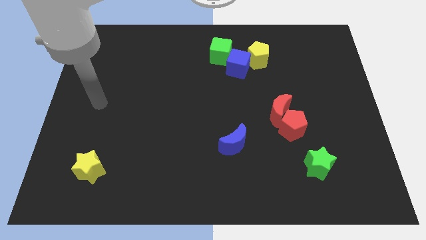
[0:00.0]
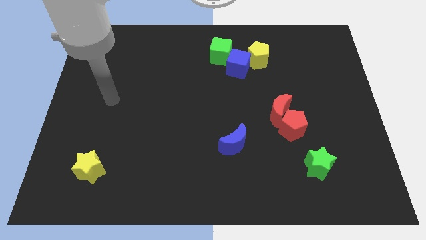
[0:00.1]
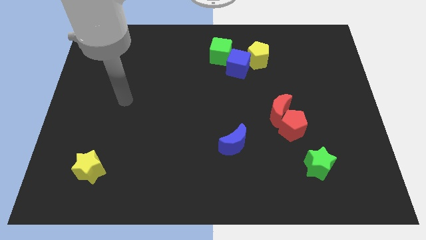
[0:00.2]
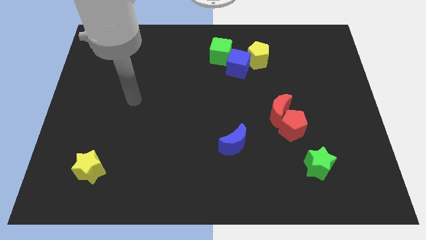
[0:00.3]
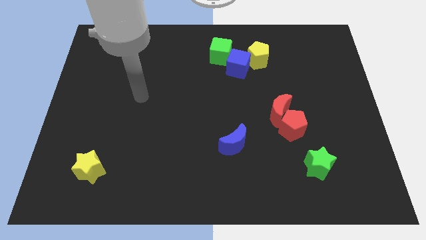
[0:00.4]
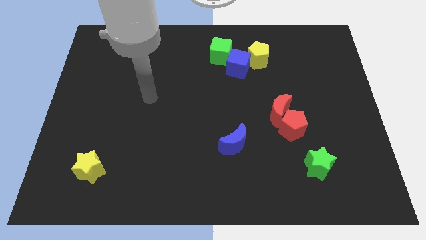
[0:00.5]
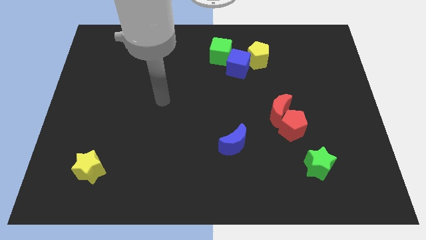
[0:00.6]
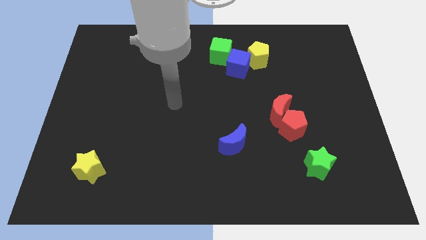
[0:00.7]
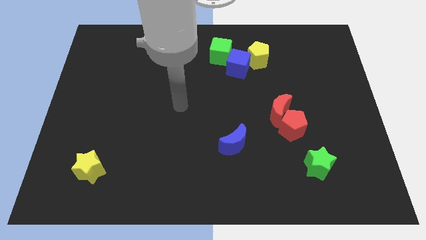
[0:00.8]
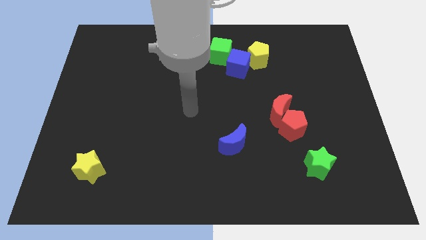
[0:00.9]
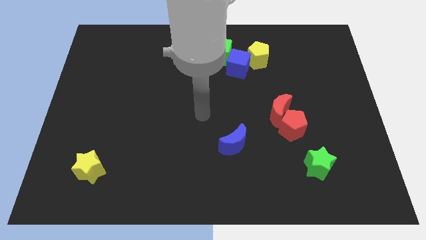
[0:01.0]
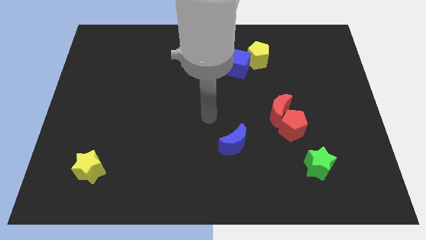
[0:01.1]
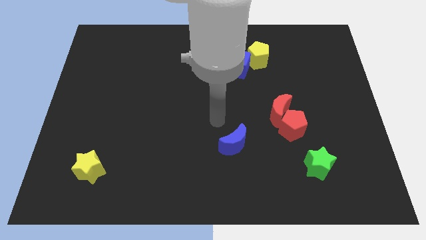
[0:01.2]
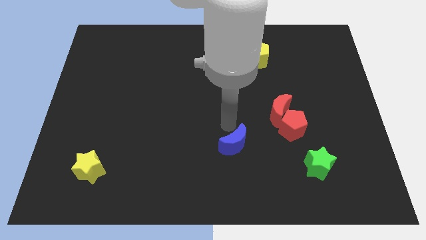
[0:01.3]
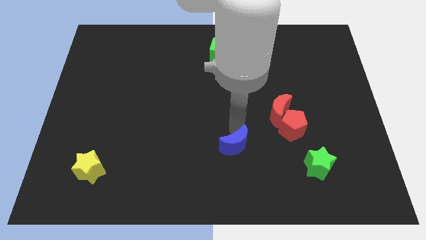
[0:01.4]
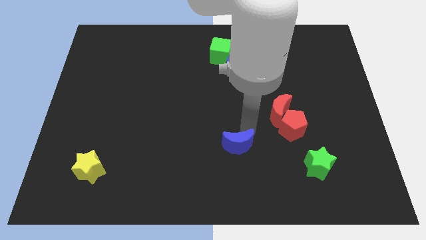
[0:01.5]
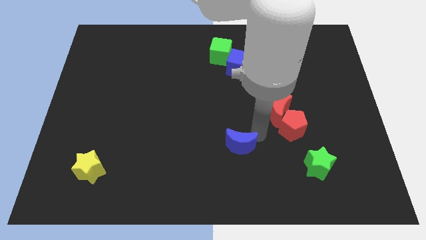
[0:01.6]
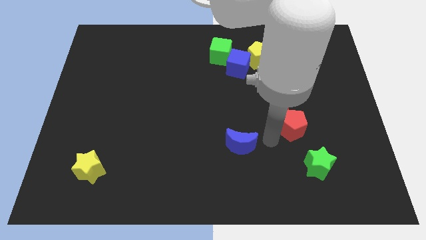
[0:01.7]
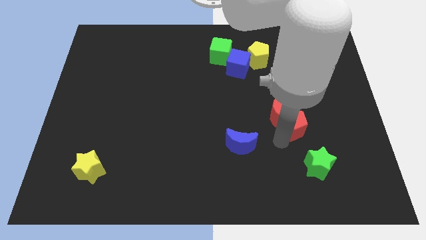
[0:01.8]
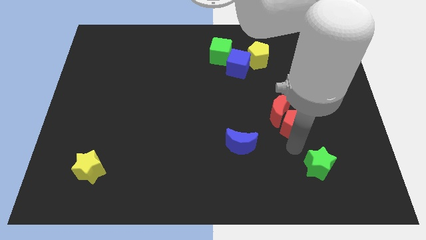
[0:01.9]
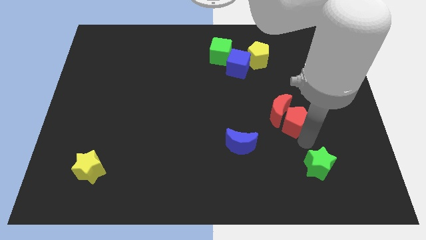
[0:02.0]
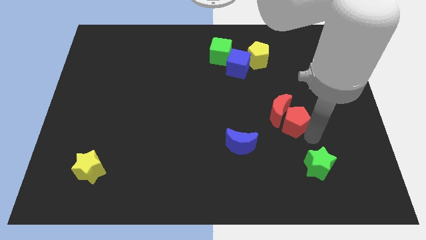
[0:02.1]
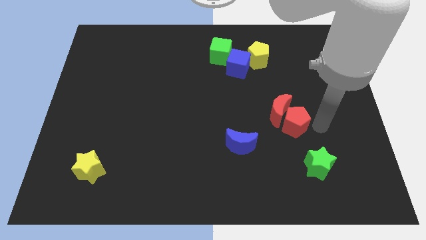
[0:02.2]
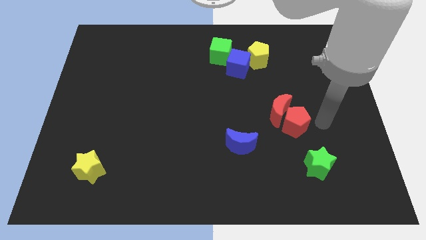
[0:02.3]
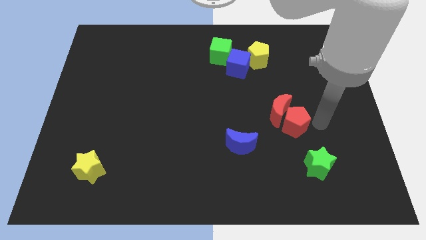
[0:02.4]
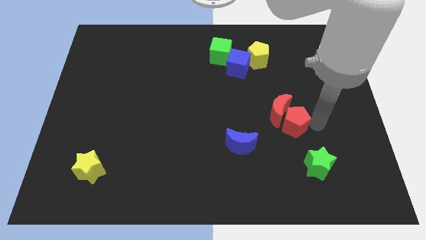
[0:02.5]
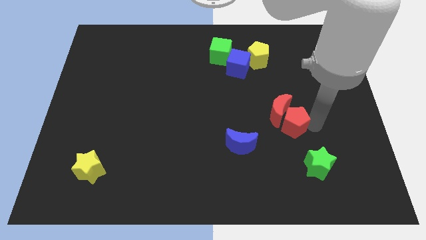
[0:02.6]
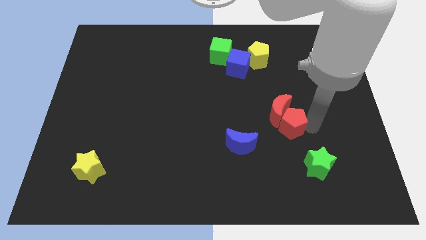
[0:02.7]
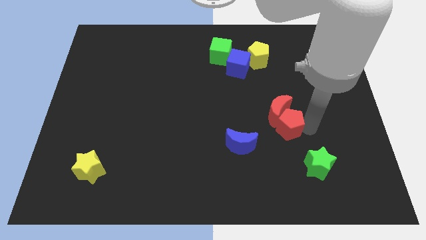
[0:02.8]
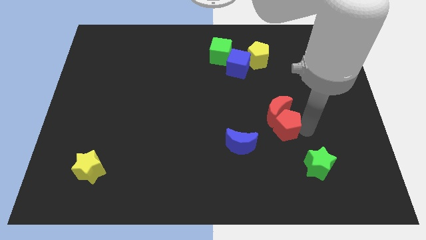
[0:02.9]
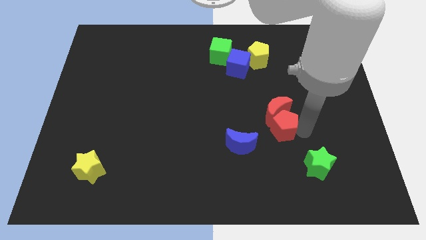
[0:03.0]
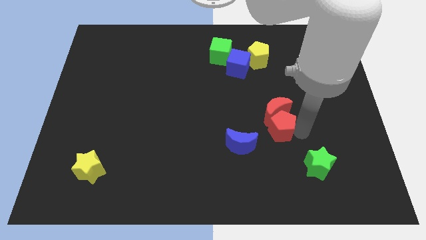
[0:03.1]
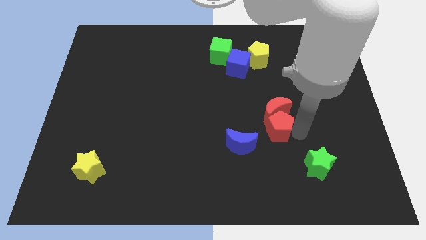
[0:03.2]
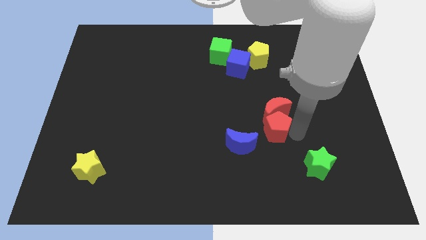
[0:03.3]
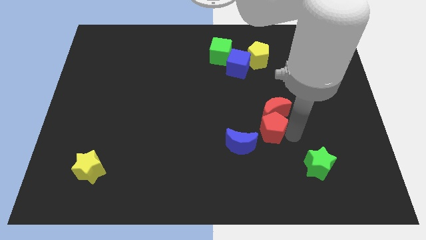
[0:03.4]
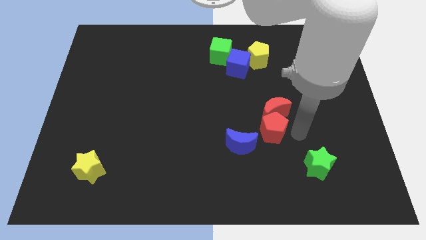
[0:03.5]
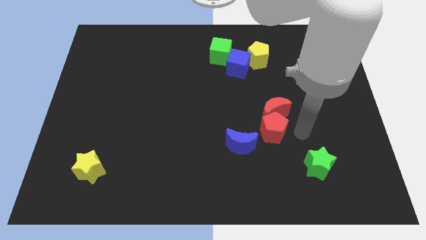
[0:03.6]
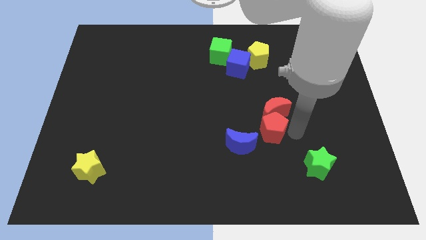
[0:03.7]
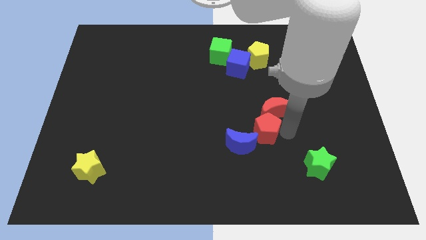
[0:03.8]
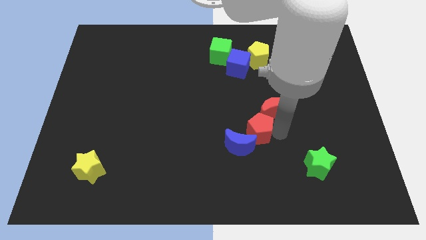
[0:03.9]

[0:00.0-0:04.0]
slightly move the red pentagon left

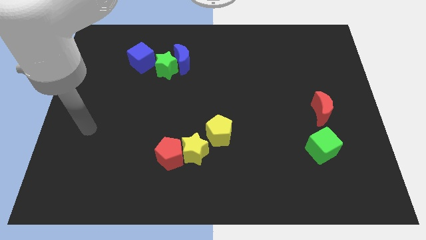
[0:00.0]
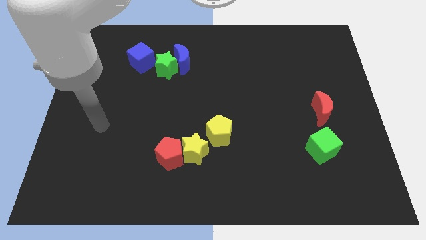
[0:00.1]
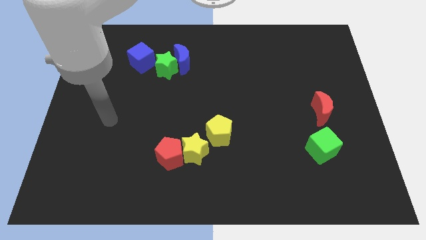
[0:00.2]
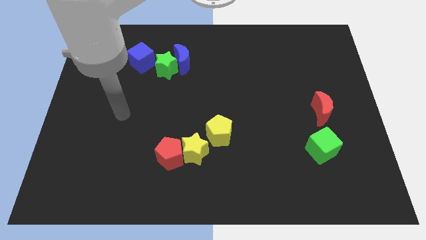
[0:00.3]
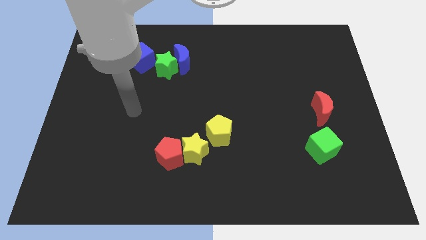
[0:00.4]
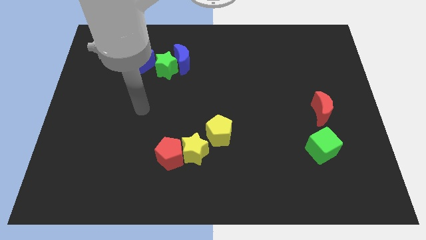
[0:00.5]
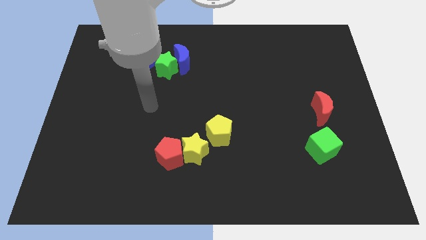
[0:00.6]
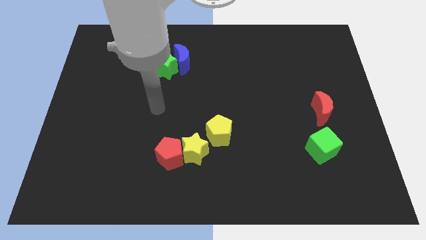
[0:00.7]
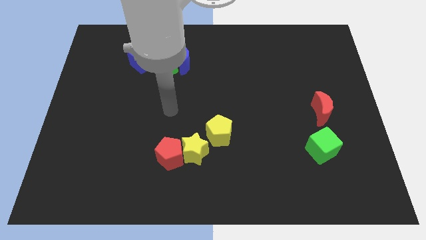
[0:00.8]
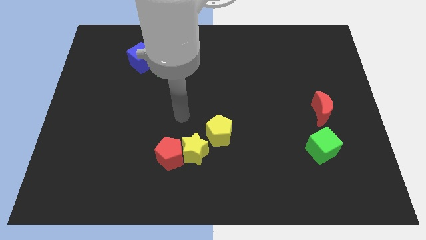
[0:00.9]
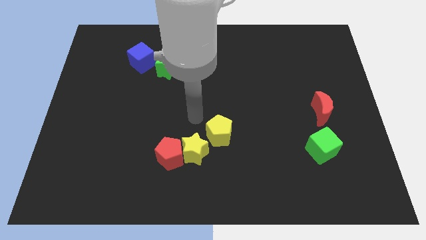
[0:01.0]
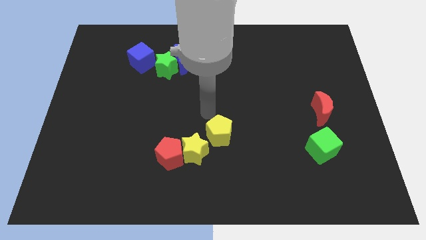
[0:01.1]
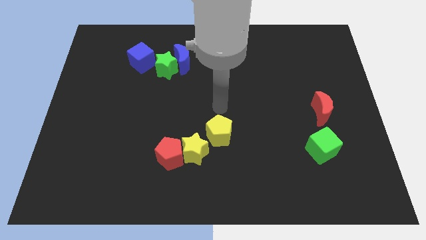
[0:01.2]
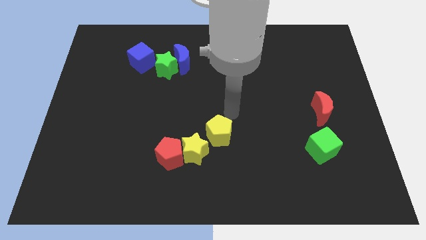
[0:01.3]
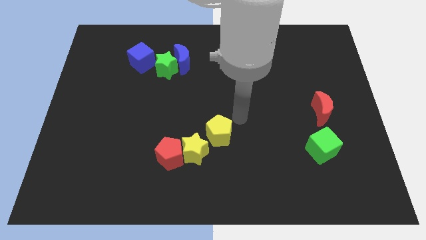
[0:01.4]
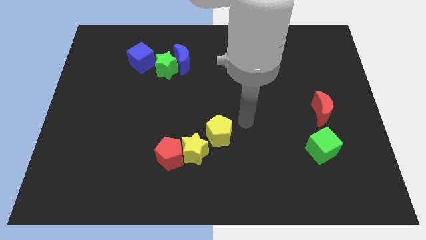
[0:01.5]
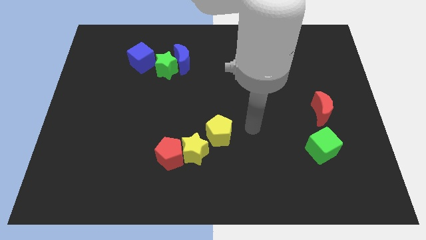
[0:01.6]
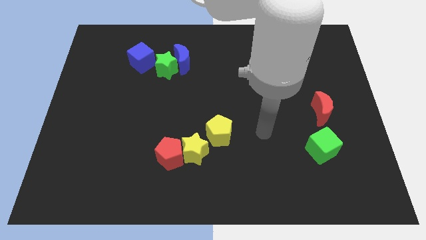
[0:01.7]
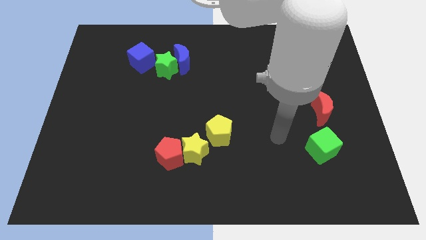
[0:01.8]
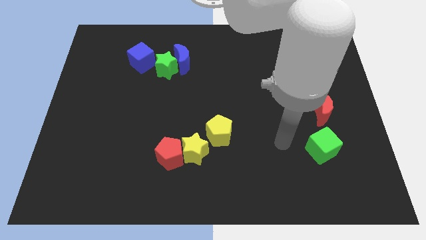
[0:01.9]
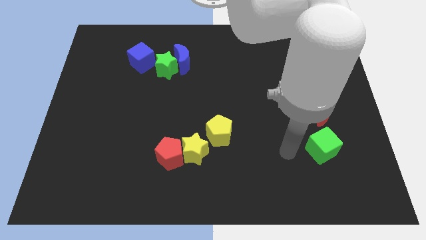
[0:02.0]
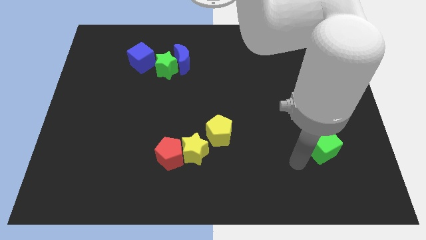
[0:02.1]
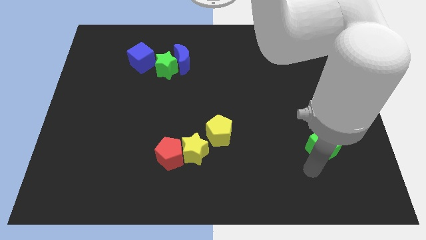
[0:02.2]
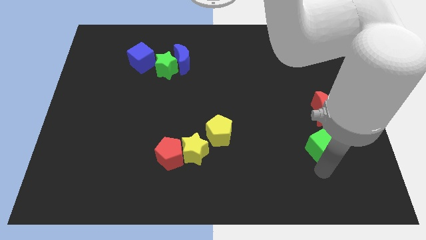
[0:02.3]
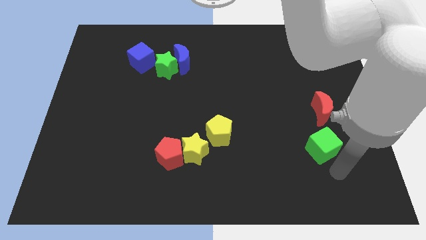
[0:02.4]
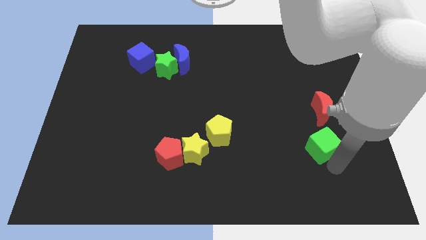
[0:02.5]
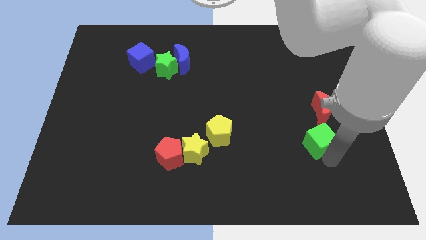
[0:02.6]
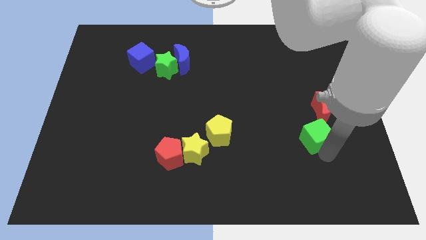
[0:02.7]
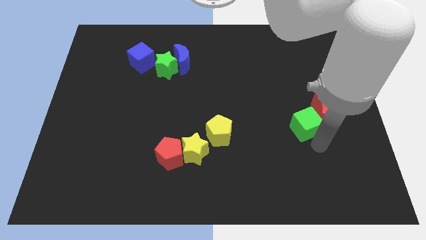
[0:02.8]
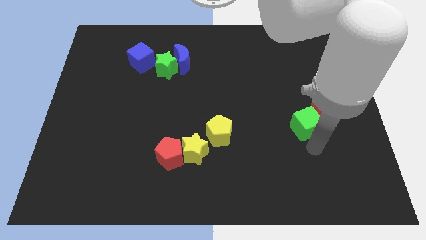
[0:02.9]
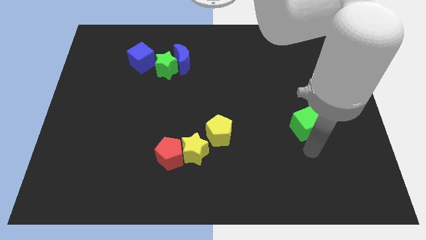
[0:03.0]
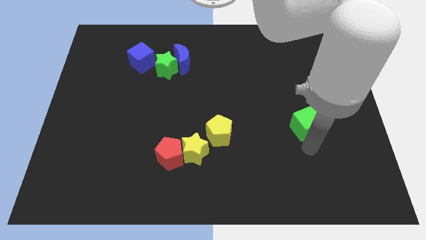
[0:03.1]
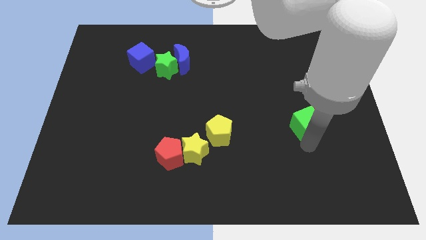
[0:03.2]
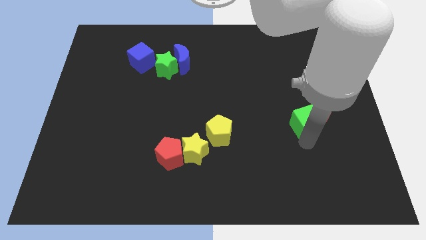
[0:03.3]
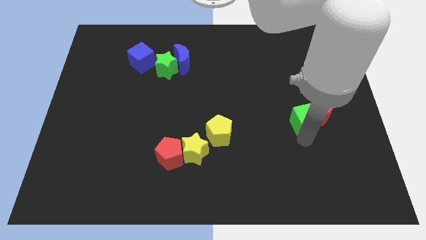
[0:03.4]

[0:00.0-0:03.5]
slightly push the green cube upwards

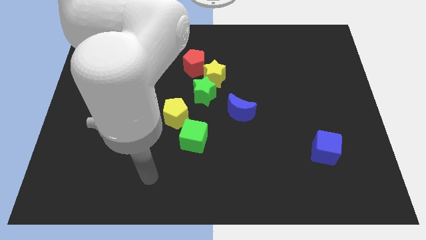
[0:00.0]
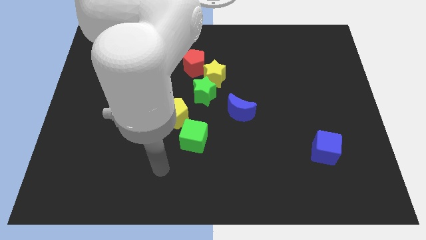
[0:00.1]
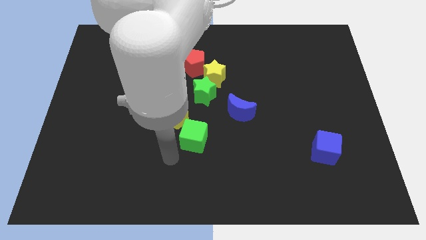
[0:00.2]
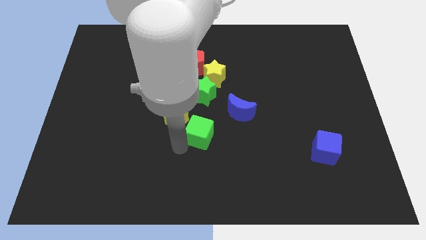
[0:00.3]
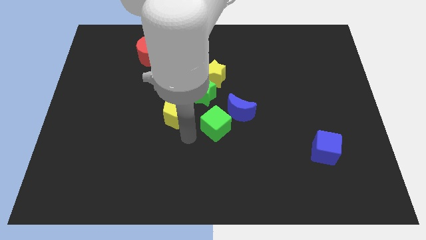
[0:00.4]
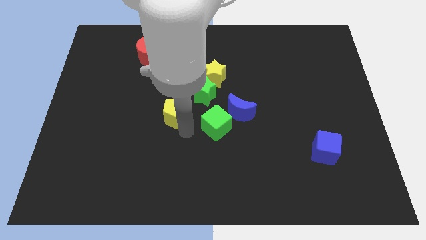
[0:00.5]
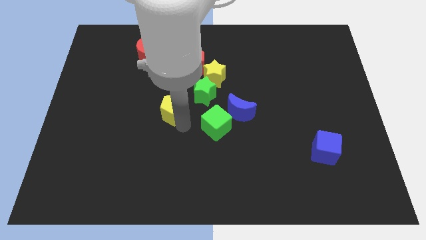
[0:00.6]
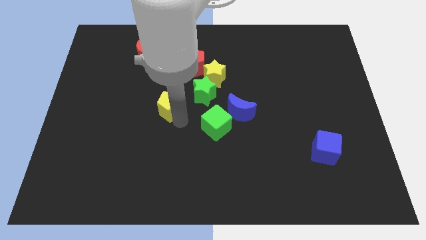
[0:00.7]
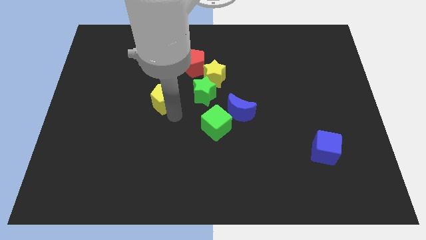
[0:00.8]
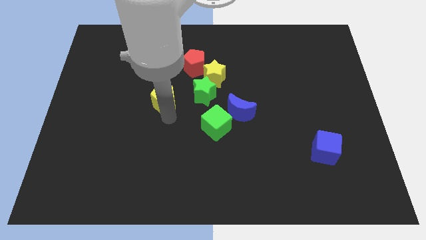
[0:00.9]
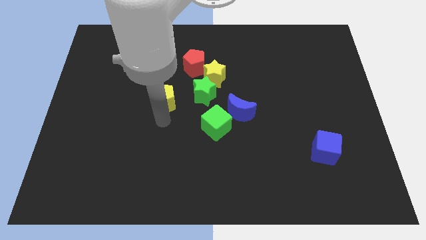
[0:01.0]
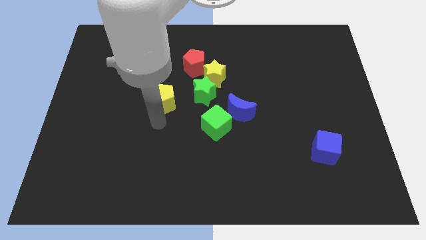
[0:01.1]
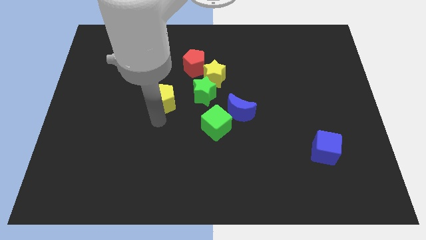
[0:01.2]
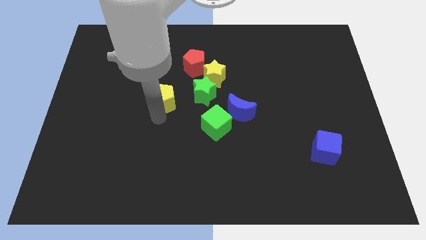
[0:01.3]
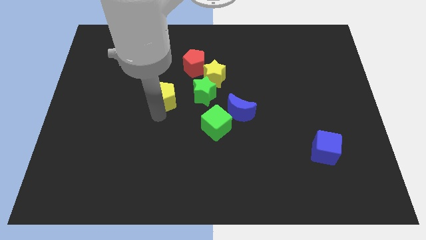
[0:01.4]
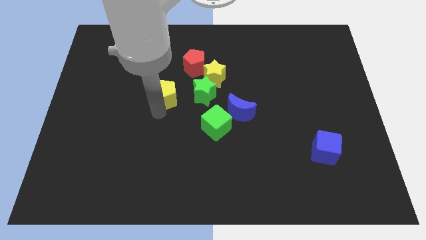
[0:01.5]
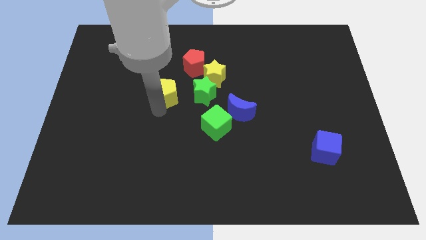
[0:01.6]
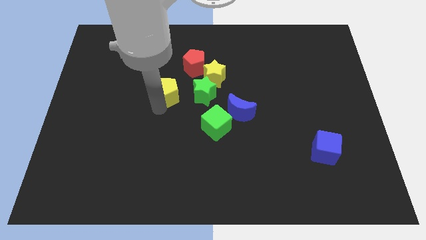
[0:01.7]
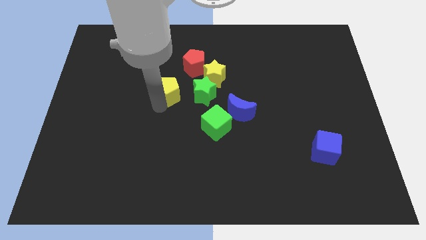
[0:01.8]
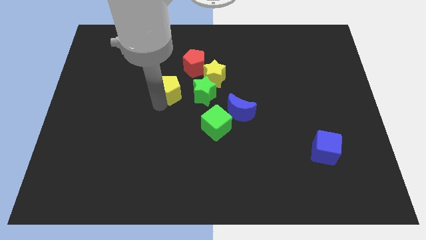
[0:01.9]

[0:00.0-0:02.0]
push the yellow pentagon a bit up
